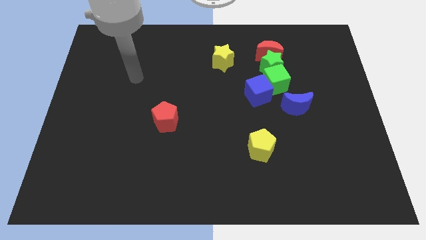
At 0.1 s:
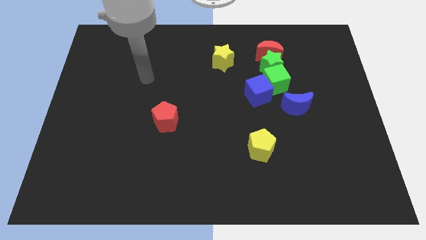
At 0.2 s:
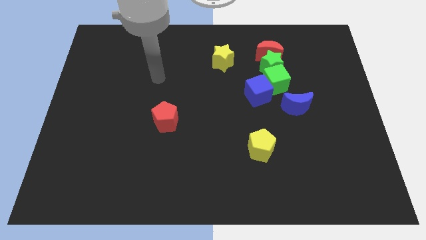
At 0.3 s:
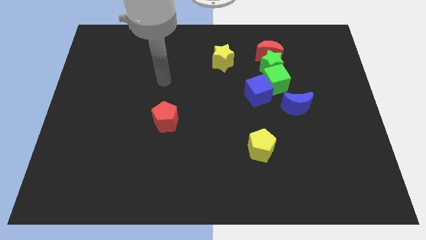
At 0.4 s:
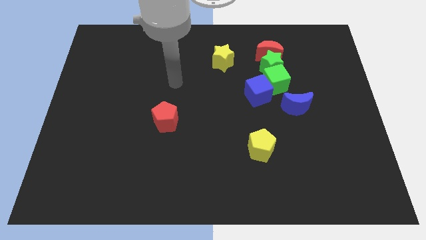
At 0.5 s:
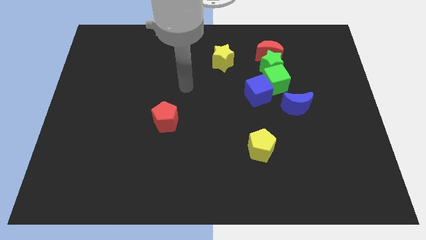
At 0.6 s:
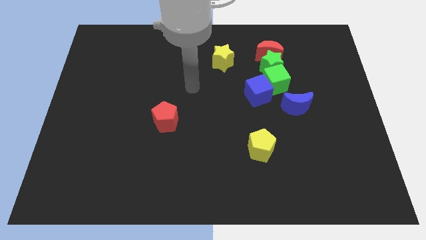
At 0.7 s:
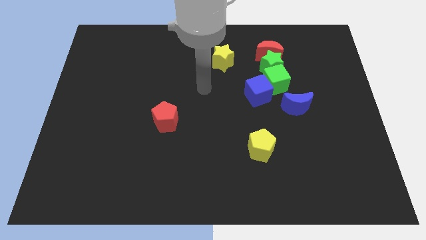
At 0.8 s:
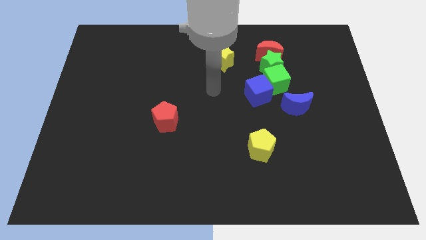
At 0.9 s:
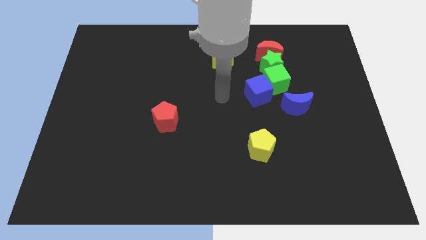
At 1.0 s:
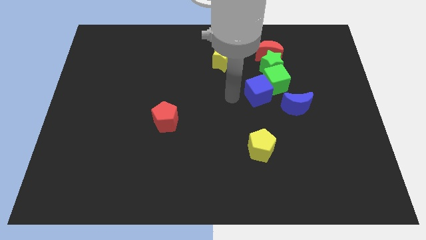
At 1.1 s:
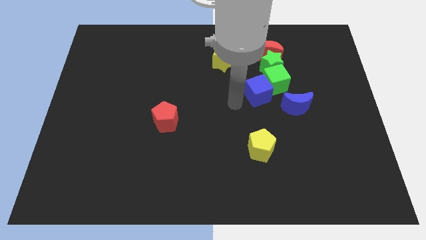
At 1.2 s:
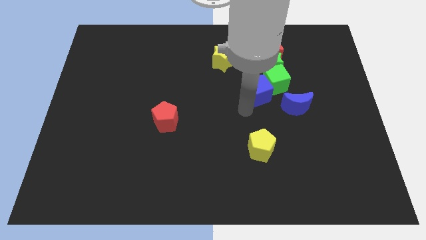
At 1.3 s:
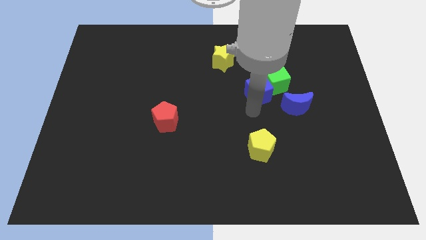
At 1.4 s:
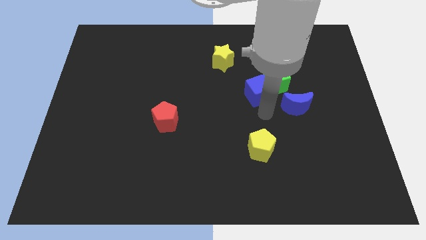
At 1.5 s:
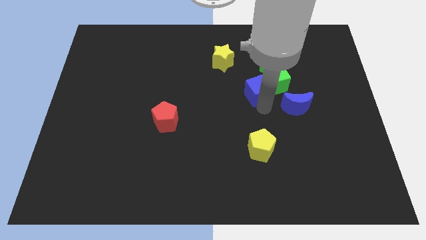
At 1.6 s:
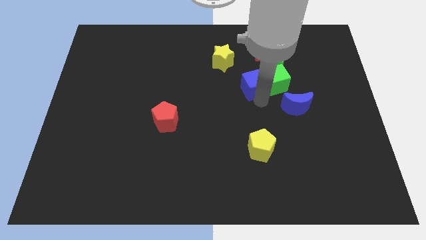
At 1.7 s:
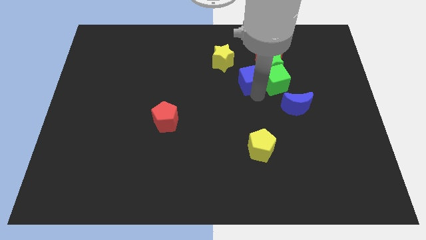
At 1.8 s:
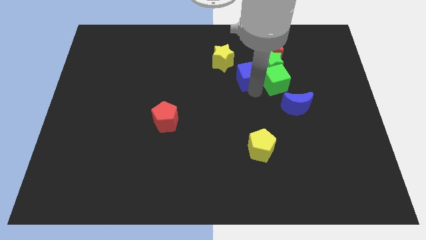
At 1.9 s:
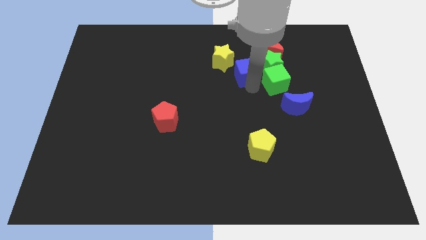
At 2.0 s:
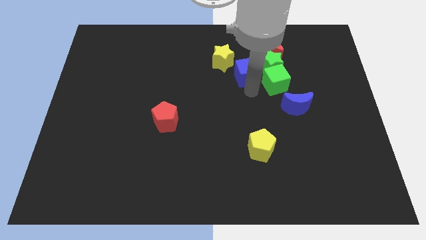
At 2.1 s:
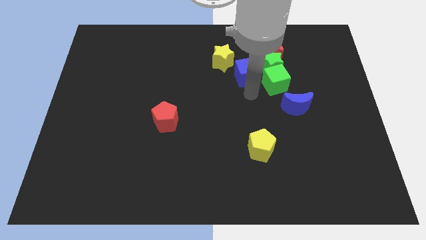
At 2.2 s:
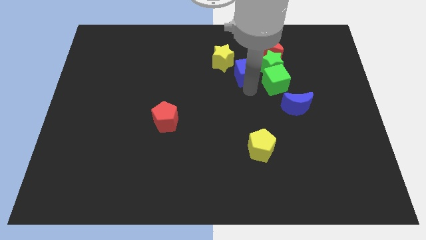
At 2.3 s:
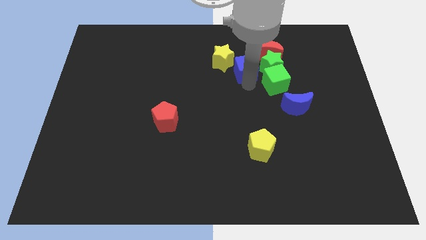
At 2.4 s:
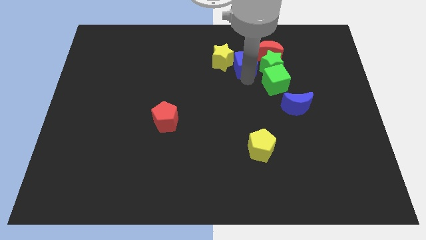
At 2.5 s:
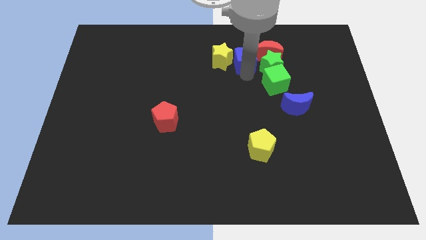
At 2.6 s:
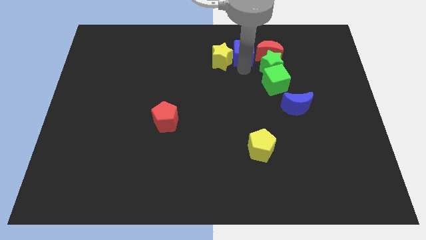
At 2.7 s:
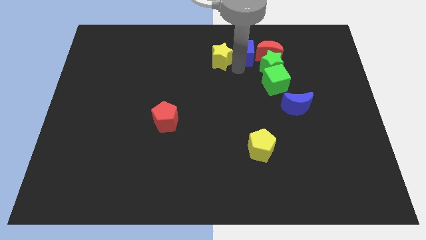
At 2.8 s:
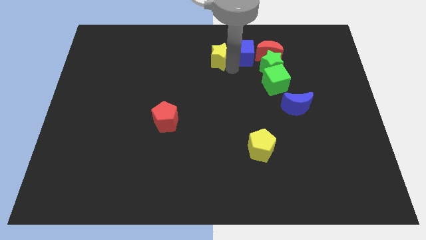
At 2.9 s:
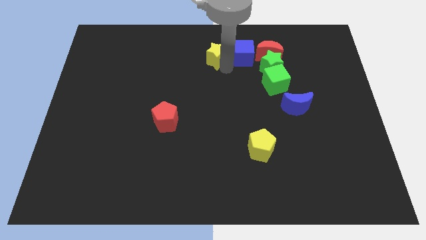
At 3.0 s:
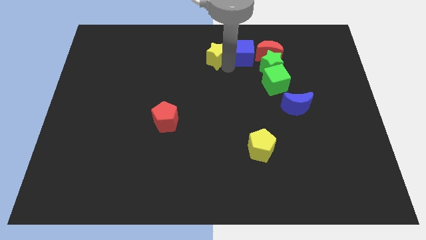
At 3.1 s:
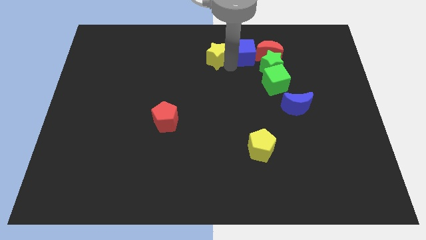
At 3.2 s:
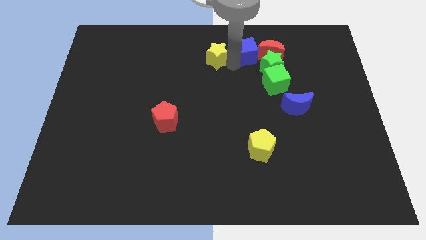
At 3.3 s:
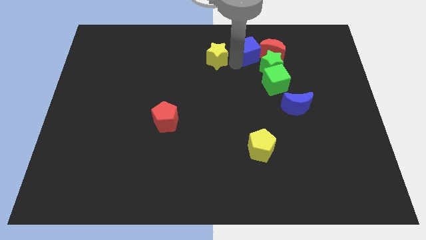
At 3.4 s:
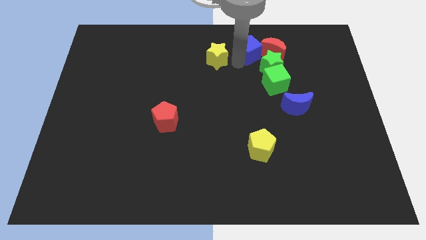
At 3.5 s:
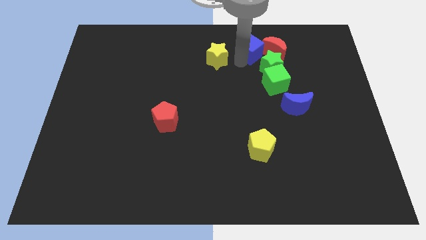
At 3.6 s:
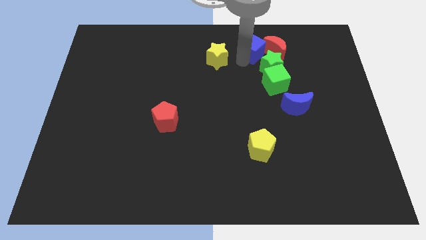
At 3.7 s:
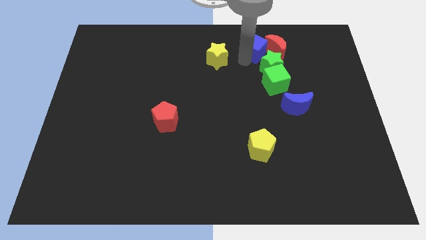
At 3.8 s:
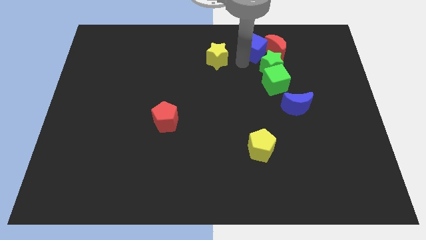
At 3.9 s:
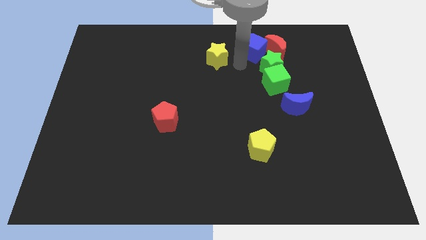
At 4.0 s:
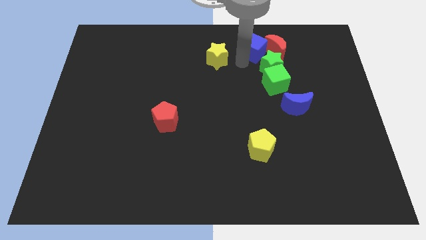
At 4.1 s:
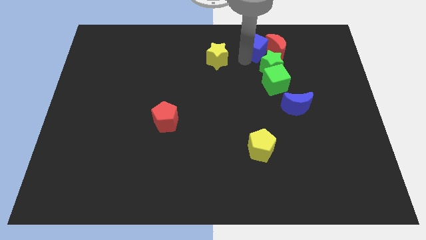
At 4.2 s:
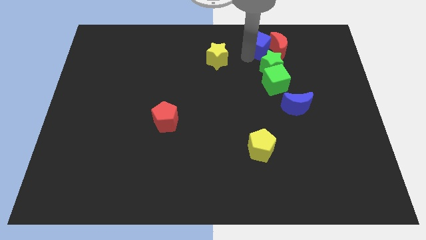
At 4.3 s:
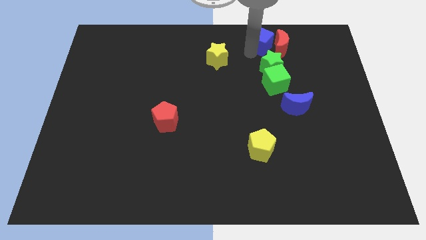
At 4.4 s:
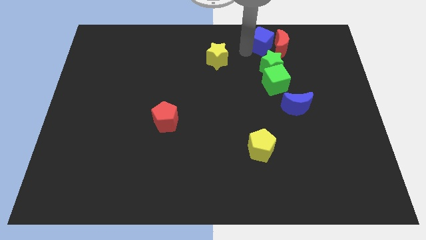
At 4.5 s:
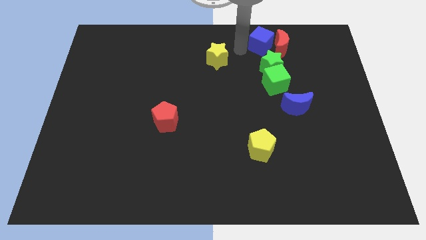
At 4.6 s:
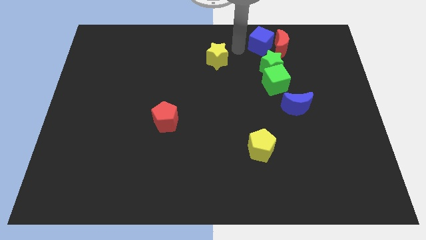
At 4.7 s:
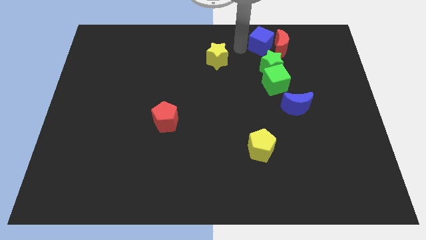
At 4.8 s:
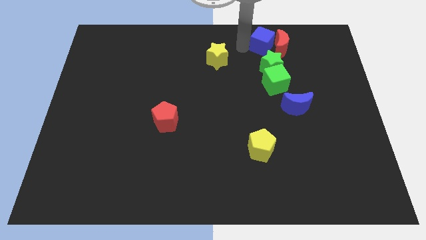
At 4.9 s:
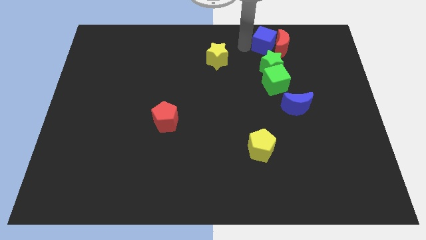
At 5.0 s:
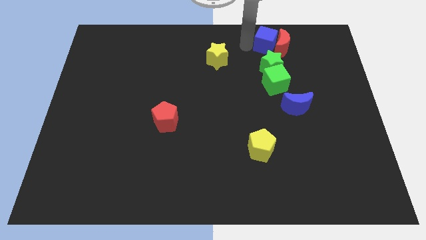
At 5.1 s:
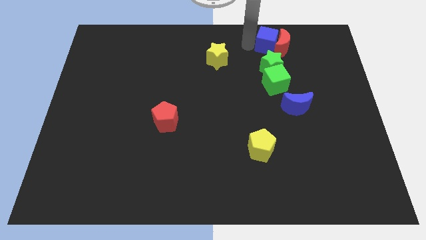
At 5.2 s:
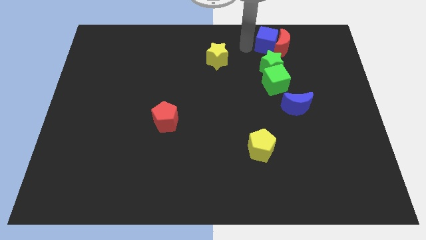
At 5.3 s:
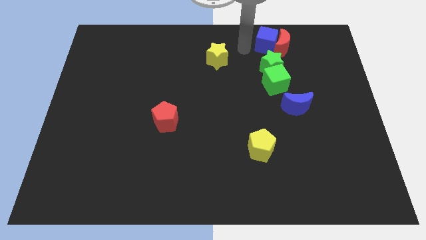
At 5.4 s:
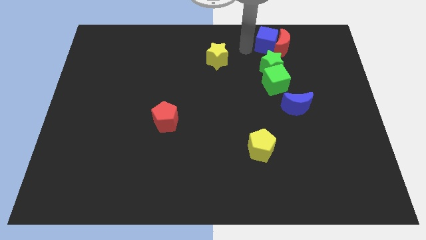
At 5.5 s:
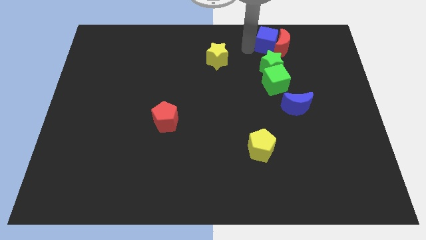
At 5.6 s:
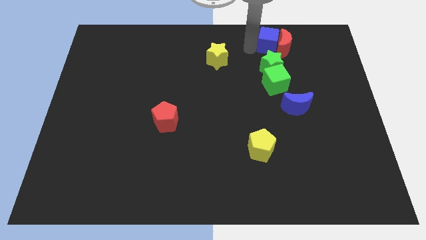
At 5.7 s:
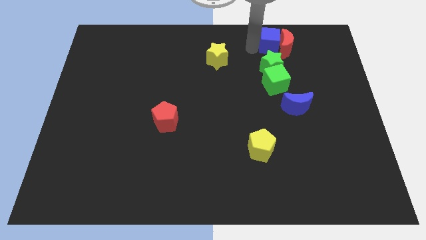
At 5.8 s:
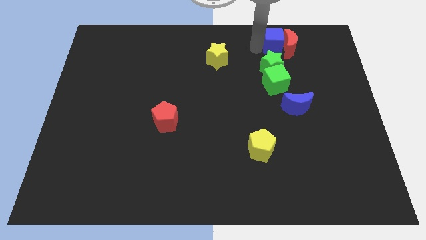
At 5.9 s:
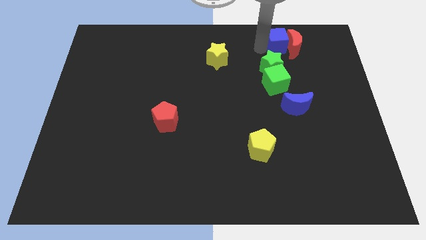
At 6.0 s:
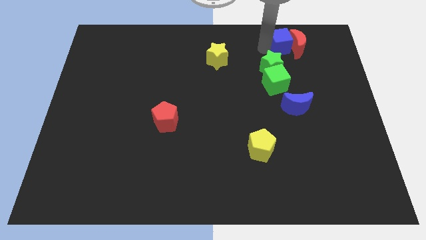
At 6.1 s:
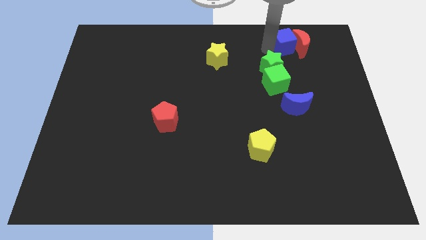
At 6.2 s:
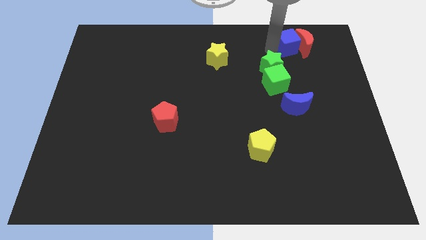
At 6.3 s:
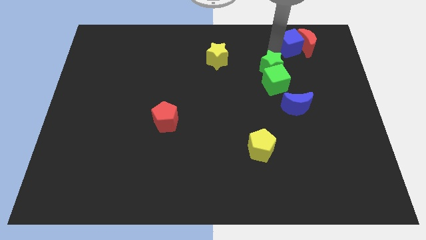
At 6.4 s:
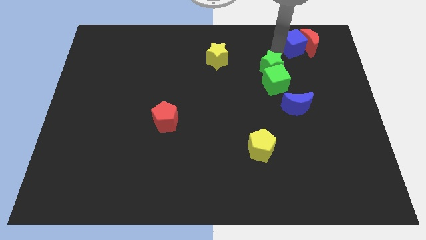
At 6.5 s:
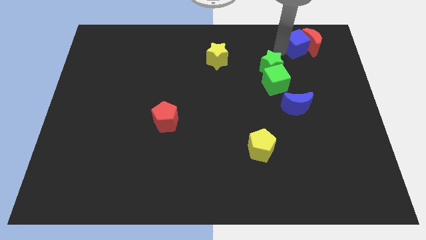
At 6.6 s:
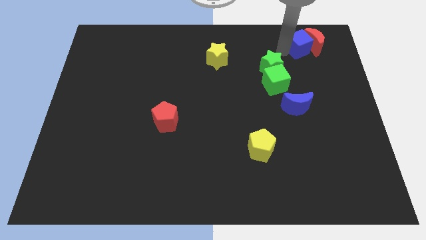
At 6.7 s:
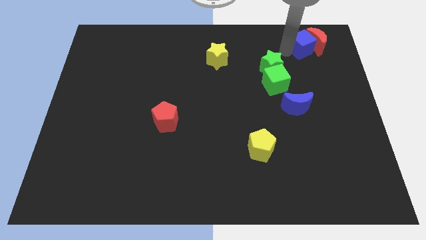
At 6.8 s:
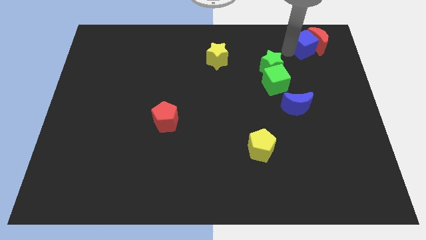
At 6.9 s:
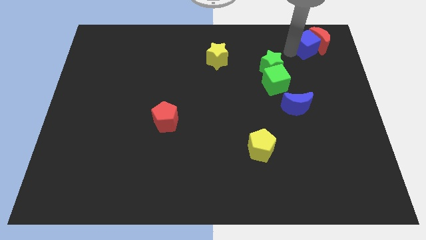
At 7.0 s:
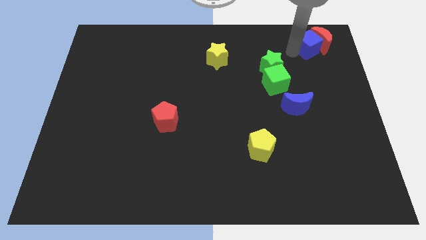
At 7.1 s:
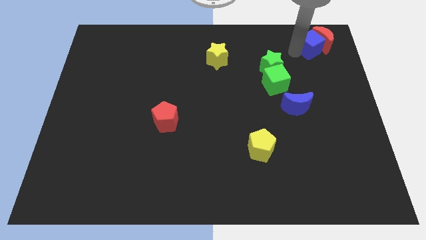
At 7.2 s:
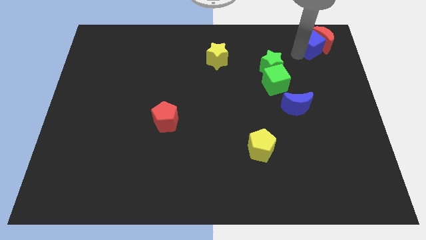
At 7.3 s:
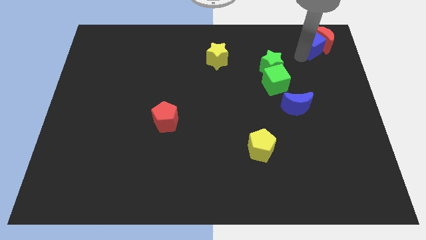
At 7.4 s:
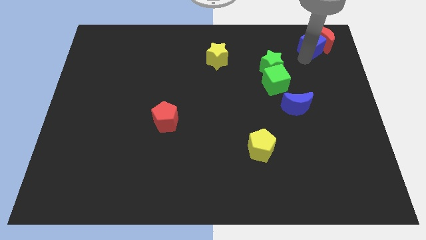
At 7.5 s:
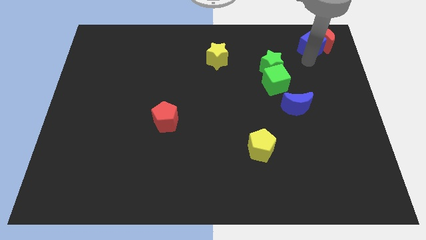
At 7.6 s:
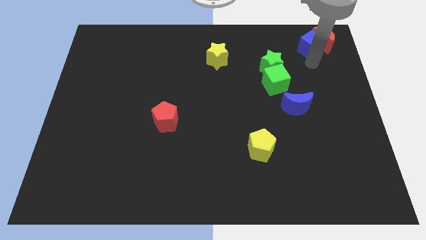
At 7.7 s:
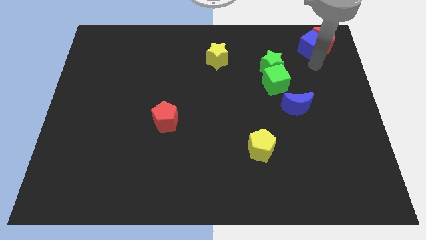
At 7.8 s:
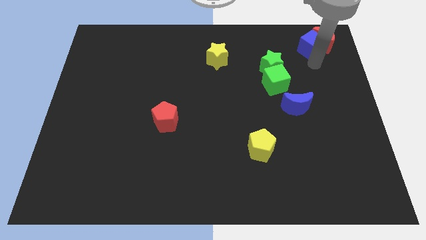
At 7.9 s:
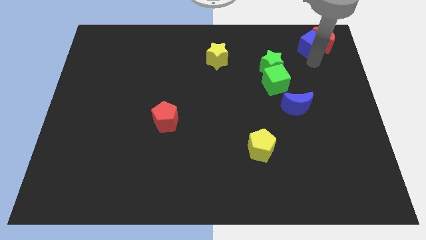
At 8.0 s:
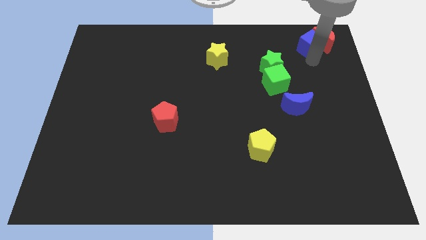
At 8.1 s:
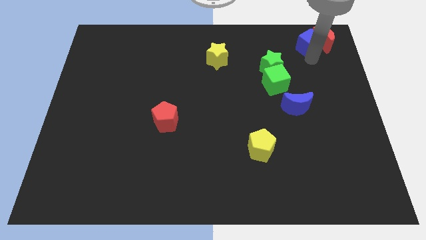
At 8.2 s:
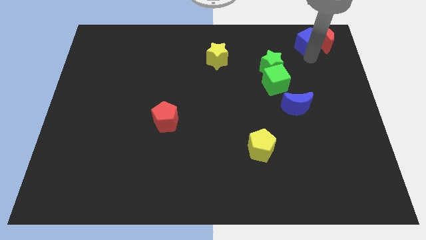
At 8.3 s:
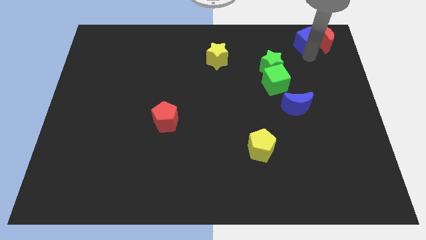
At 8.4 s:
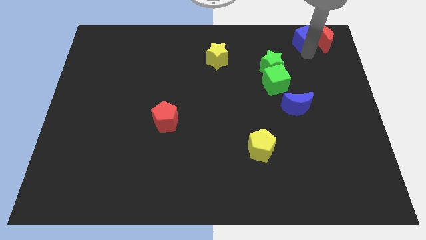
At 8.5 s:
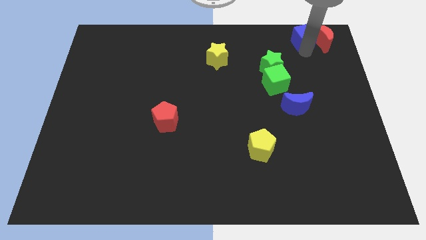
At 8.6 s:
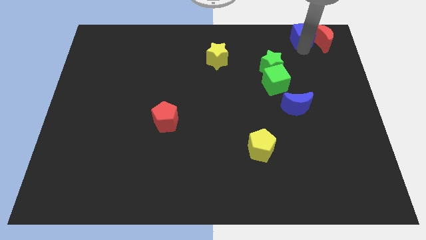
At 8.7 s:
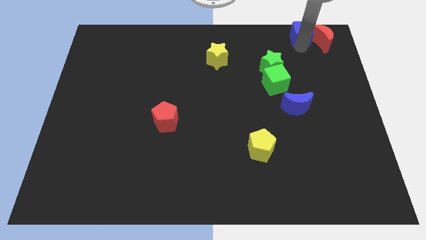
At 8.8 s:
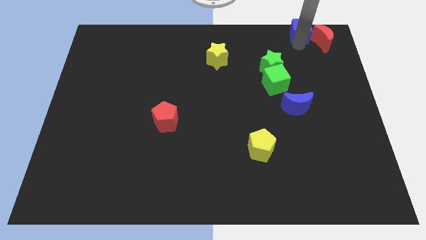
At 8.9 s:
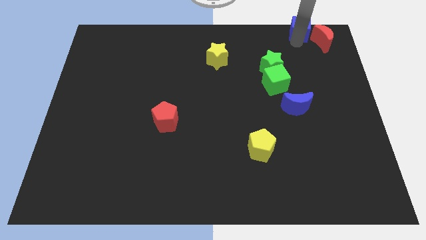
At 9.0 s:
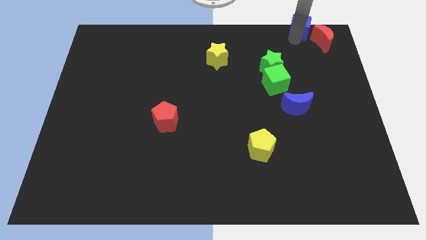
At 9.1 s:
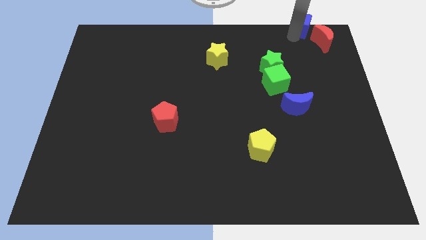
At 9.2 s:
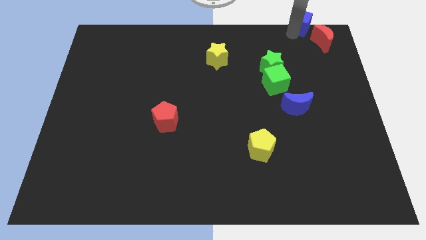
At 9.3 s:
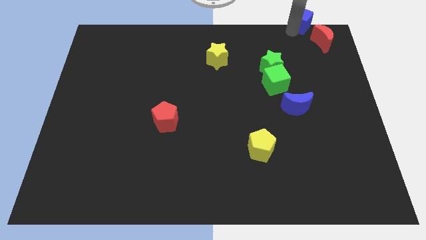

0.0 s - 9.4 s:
slide the blue cube to the top right of the board
